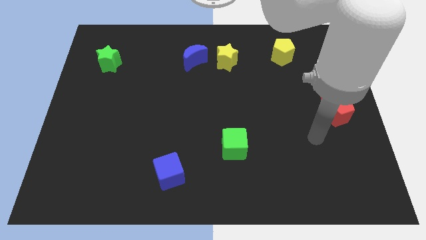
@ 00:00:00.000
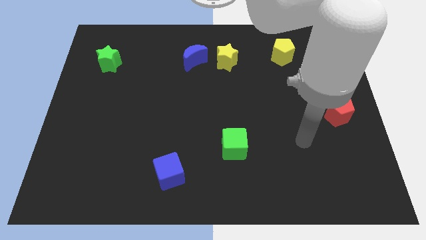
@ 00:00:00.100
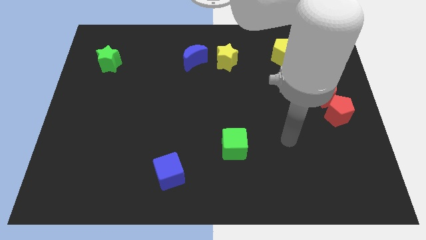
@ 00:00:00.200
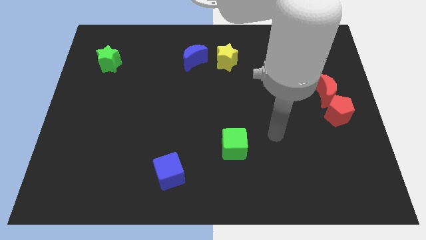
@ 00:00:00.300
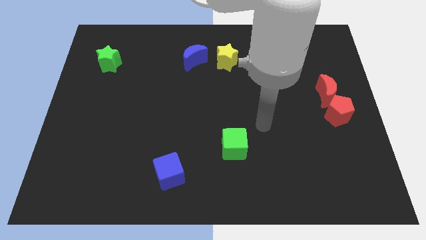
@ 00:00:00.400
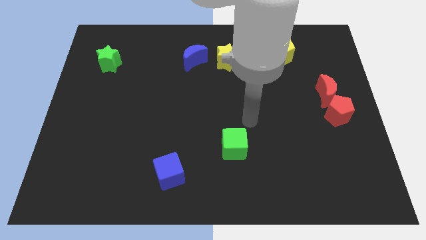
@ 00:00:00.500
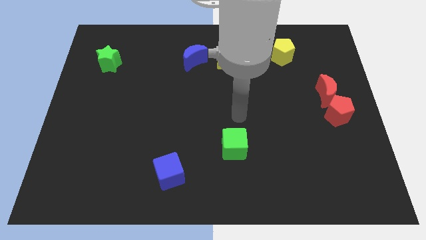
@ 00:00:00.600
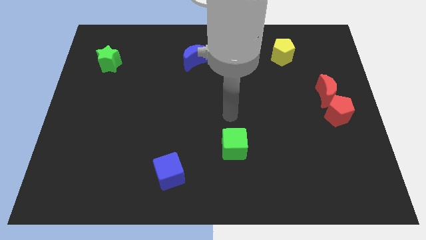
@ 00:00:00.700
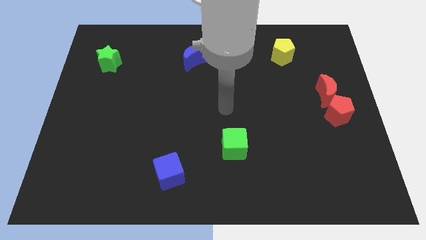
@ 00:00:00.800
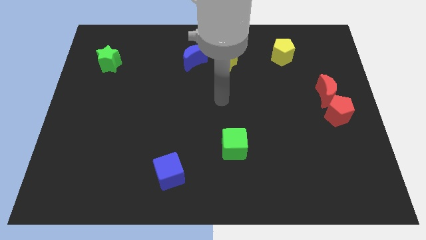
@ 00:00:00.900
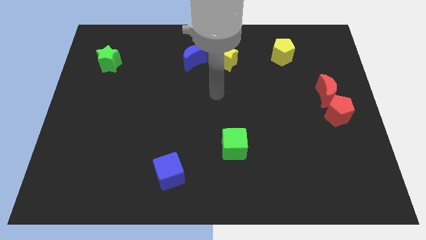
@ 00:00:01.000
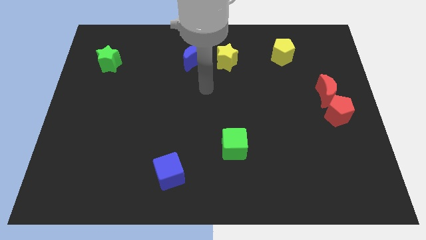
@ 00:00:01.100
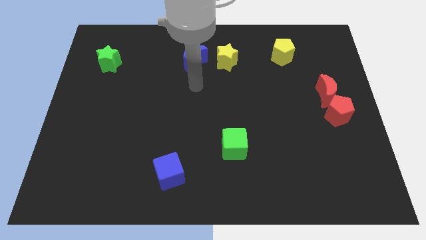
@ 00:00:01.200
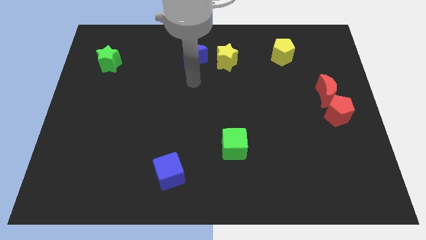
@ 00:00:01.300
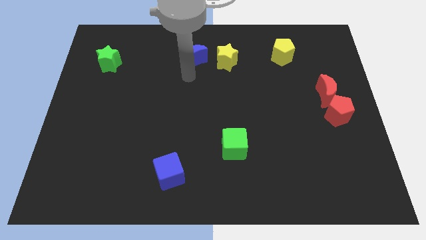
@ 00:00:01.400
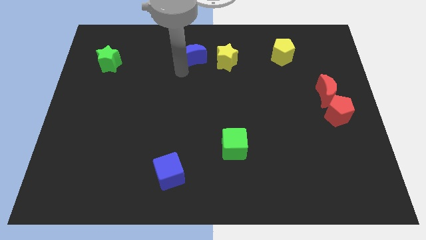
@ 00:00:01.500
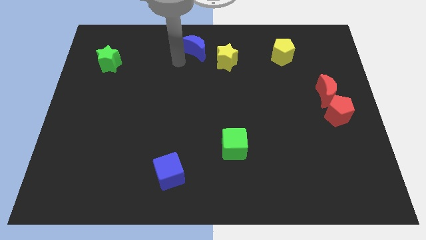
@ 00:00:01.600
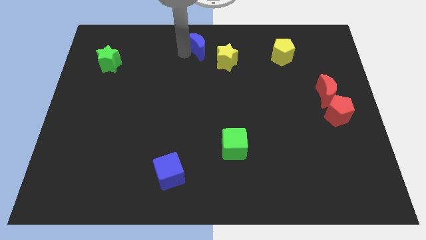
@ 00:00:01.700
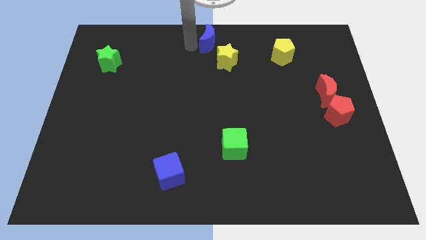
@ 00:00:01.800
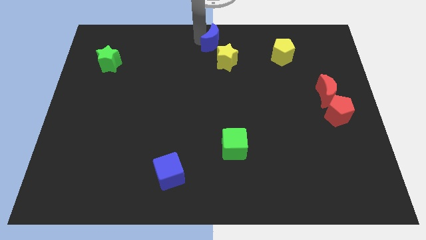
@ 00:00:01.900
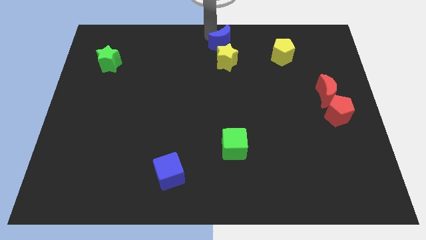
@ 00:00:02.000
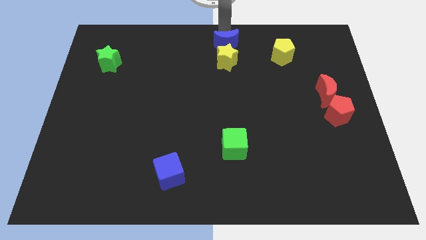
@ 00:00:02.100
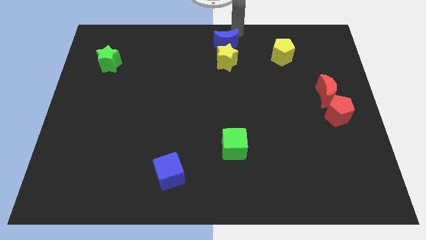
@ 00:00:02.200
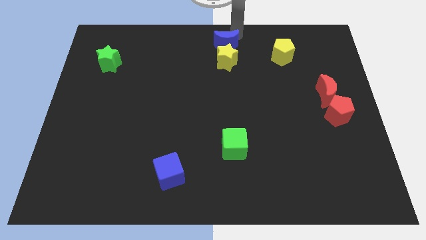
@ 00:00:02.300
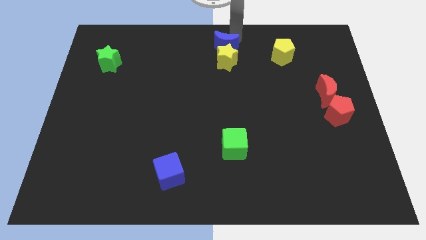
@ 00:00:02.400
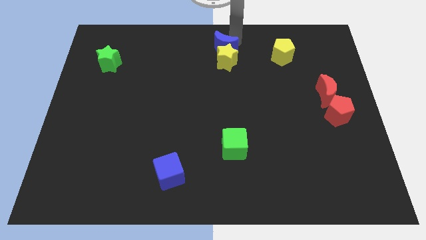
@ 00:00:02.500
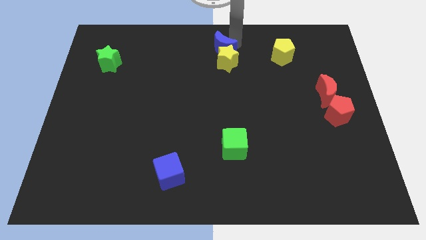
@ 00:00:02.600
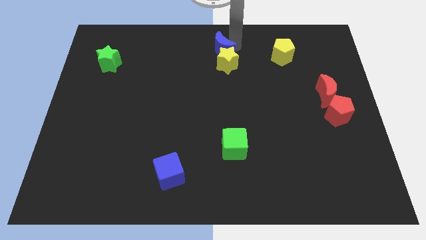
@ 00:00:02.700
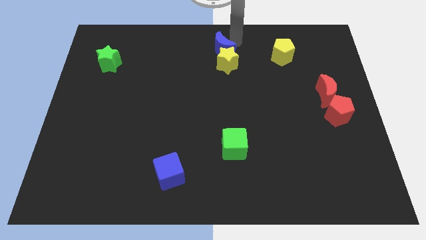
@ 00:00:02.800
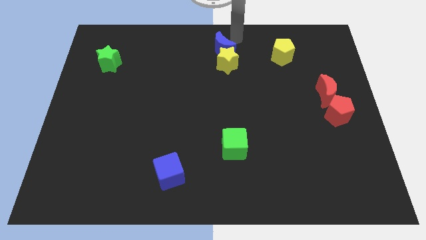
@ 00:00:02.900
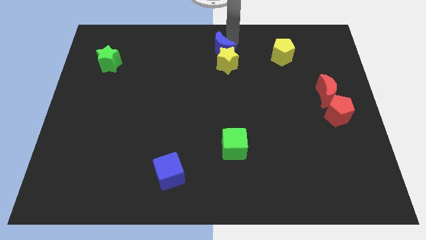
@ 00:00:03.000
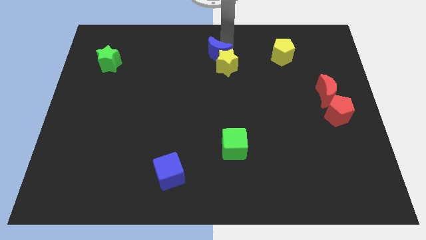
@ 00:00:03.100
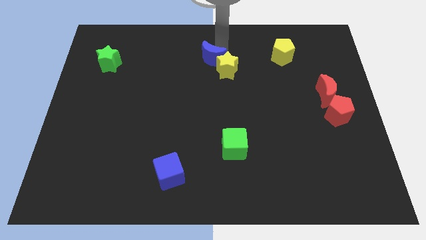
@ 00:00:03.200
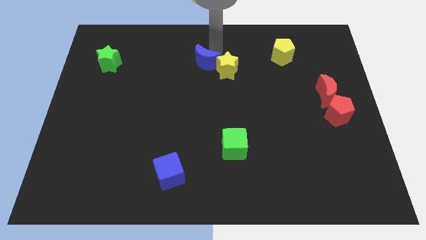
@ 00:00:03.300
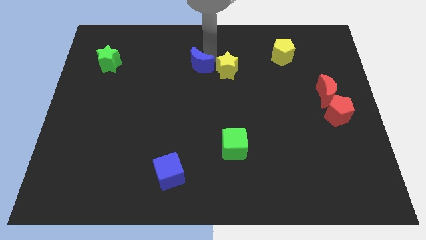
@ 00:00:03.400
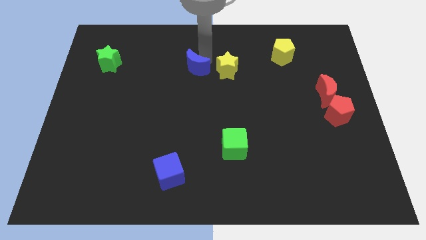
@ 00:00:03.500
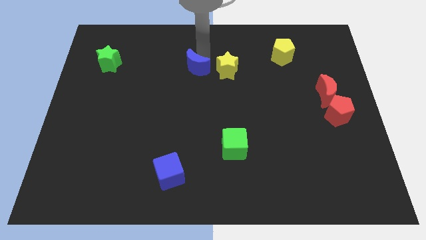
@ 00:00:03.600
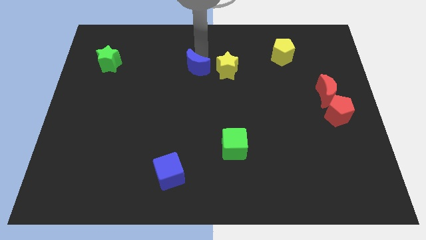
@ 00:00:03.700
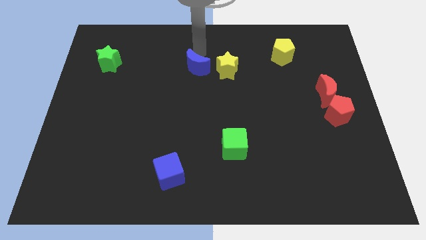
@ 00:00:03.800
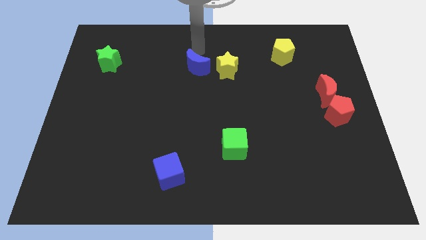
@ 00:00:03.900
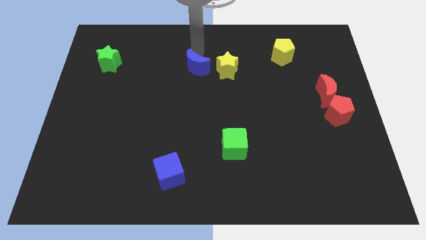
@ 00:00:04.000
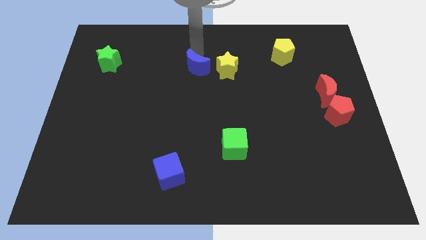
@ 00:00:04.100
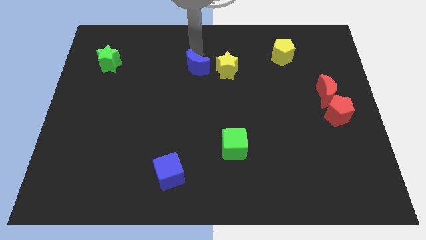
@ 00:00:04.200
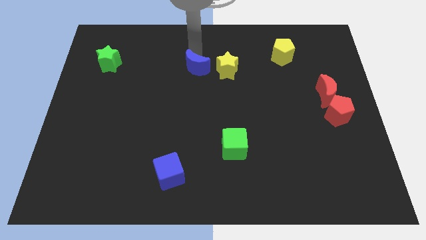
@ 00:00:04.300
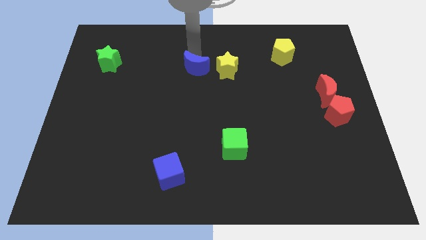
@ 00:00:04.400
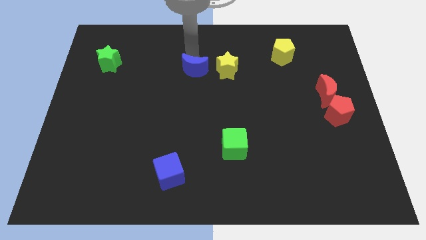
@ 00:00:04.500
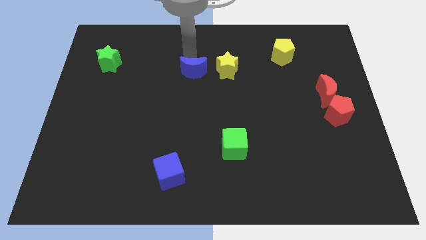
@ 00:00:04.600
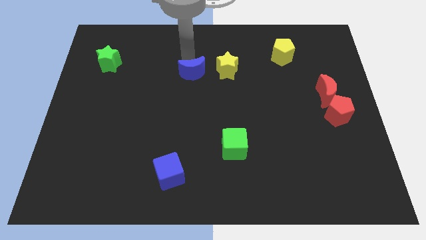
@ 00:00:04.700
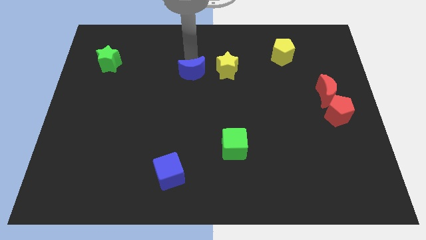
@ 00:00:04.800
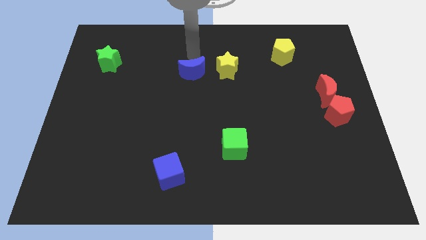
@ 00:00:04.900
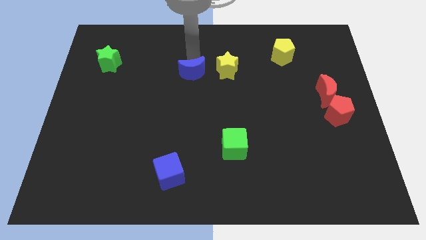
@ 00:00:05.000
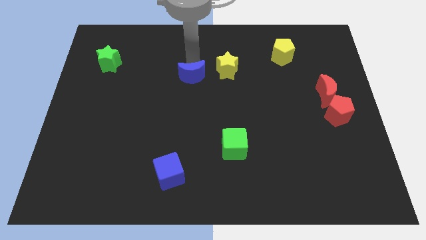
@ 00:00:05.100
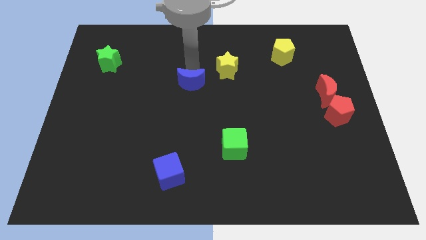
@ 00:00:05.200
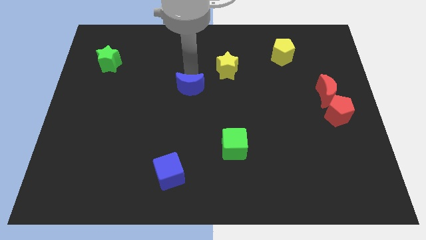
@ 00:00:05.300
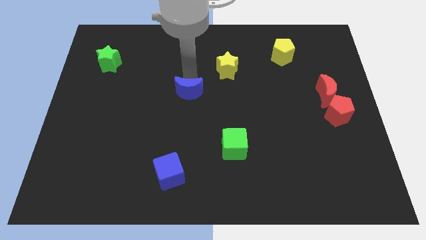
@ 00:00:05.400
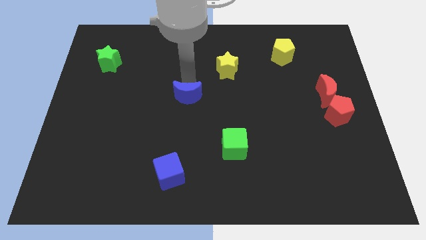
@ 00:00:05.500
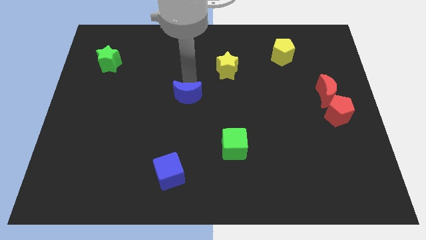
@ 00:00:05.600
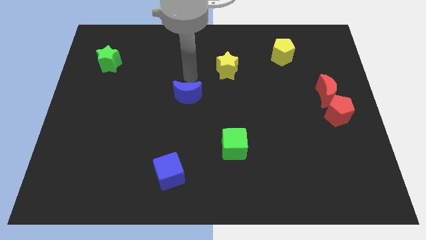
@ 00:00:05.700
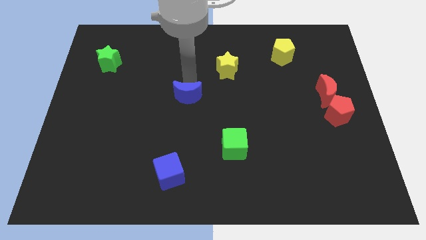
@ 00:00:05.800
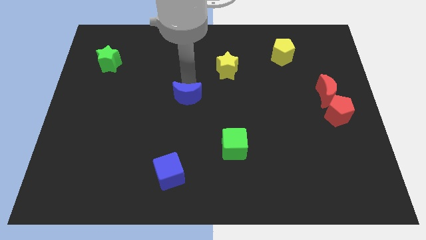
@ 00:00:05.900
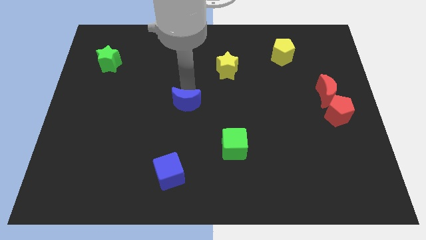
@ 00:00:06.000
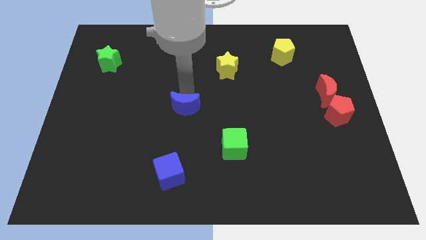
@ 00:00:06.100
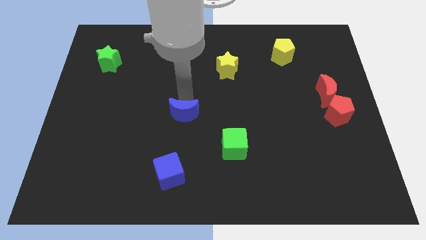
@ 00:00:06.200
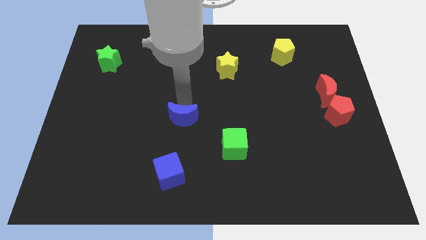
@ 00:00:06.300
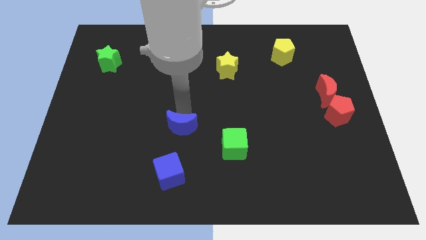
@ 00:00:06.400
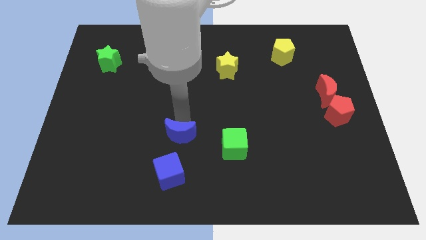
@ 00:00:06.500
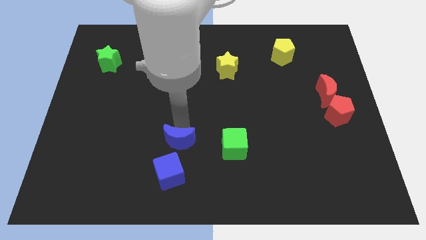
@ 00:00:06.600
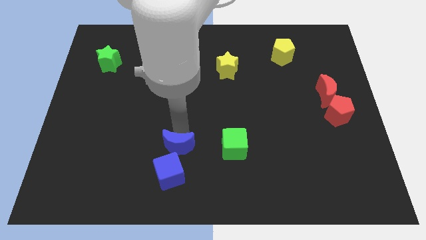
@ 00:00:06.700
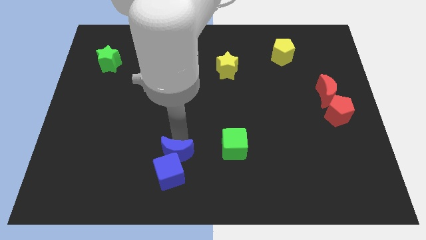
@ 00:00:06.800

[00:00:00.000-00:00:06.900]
put the blue moon towards the blue cube

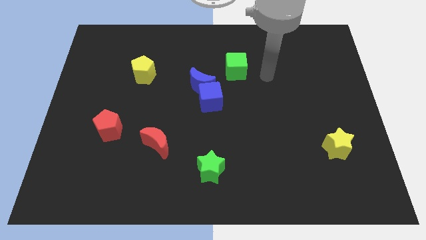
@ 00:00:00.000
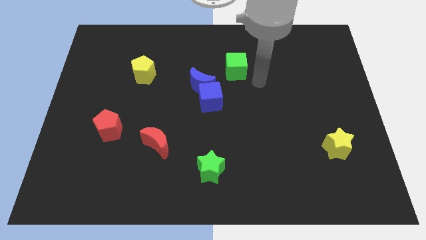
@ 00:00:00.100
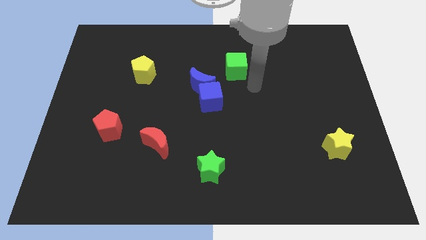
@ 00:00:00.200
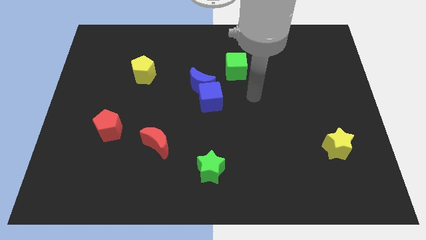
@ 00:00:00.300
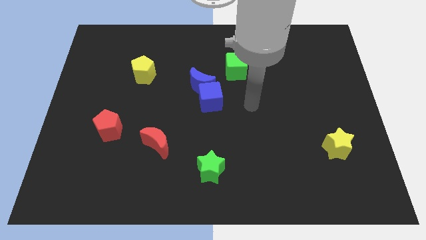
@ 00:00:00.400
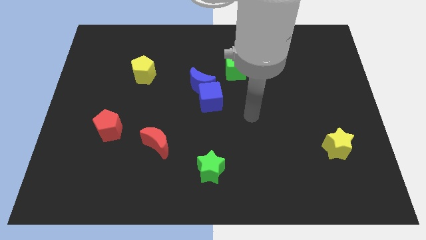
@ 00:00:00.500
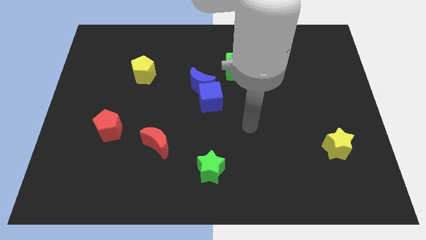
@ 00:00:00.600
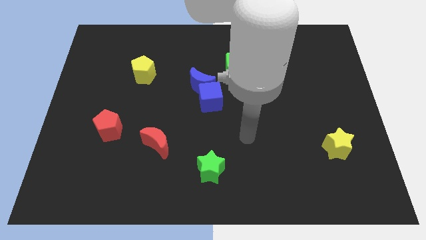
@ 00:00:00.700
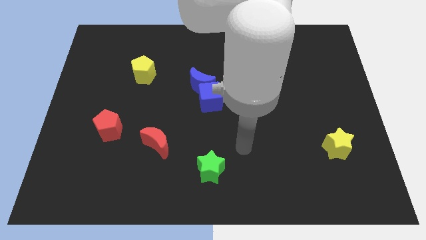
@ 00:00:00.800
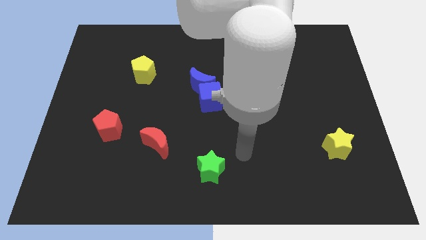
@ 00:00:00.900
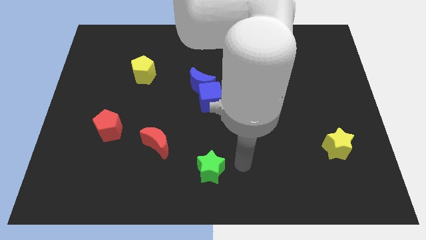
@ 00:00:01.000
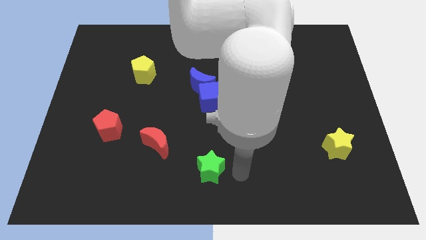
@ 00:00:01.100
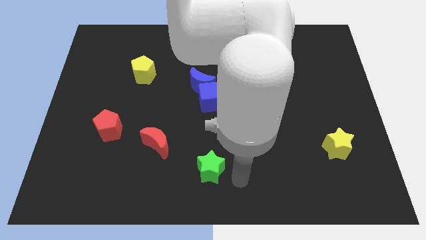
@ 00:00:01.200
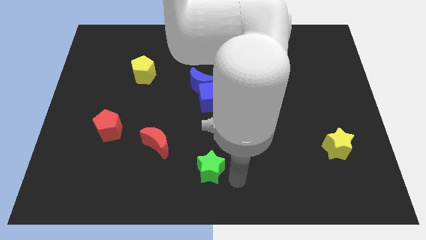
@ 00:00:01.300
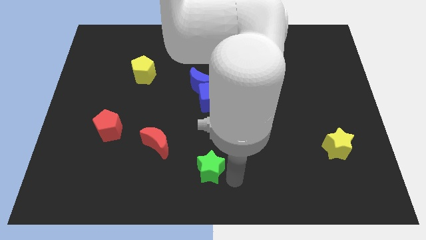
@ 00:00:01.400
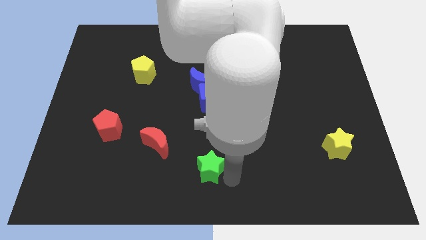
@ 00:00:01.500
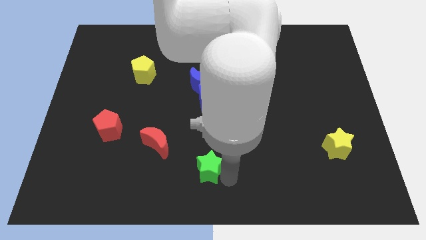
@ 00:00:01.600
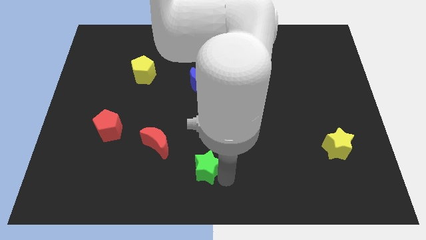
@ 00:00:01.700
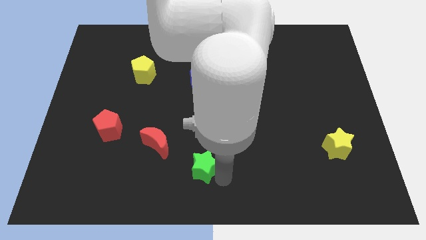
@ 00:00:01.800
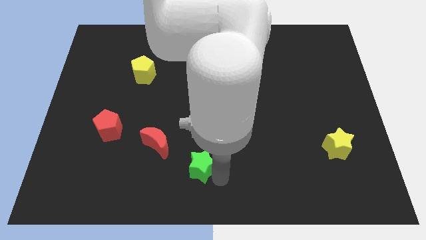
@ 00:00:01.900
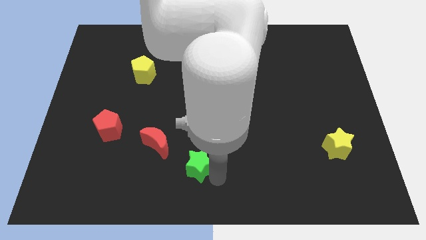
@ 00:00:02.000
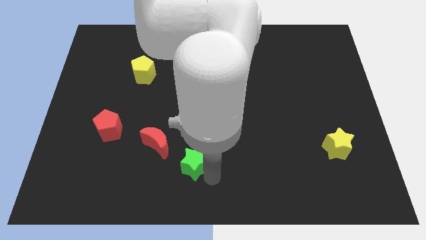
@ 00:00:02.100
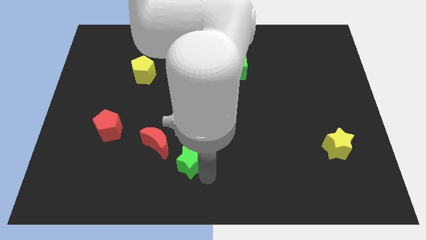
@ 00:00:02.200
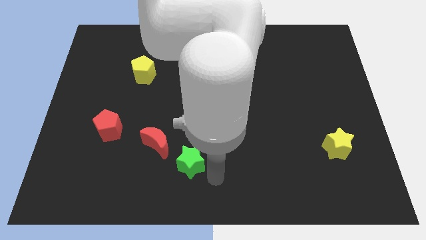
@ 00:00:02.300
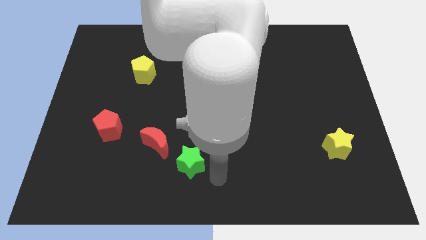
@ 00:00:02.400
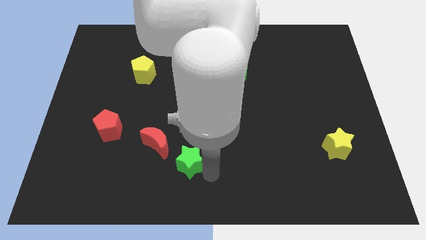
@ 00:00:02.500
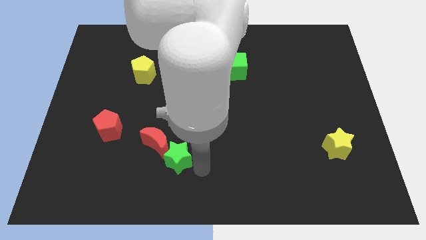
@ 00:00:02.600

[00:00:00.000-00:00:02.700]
push the green star next to the red moon
